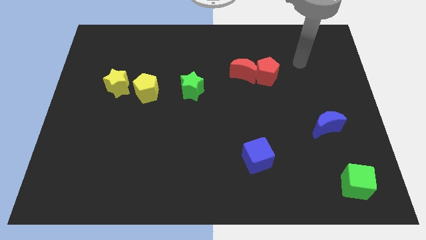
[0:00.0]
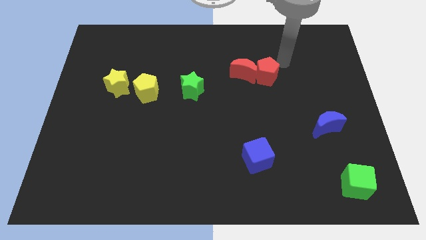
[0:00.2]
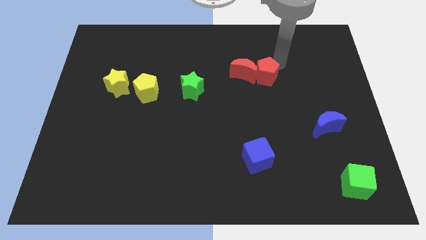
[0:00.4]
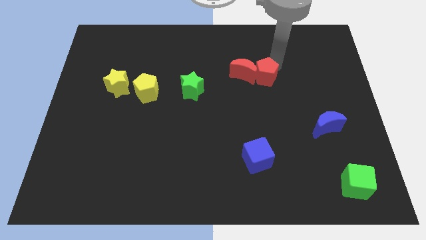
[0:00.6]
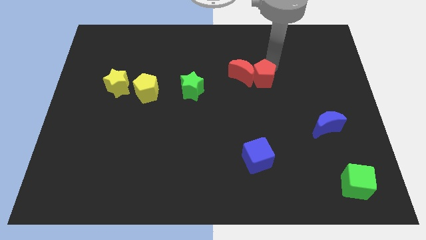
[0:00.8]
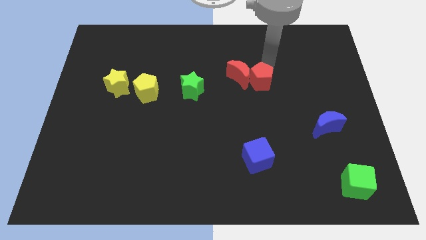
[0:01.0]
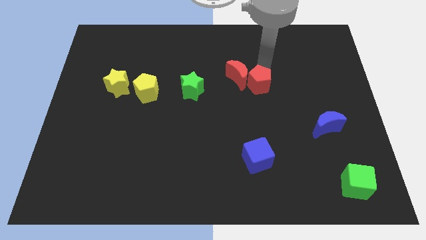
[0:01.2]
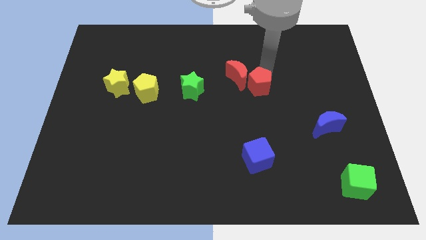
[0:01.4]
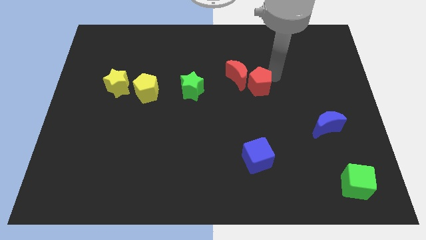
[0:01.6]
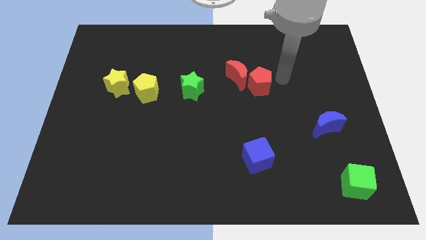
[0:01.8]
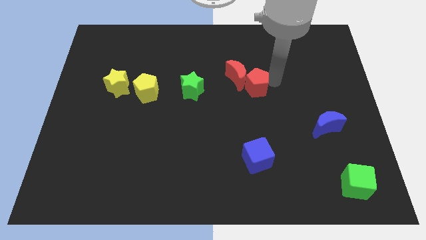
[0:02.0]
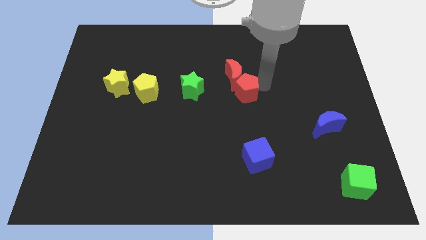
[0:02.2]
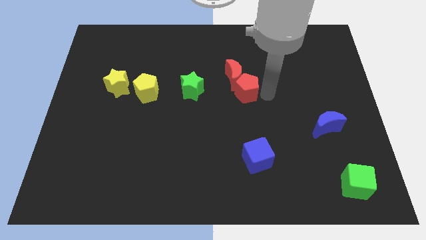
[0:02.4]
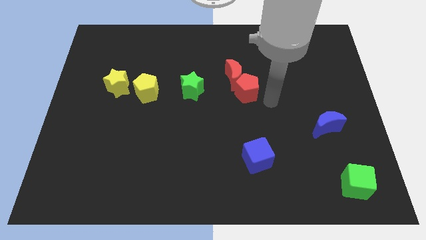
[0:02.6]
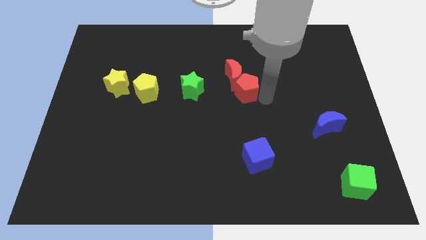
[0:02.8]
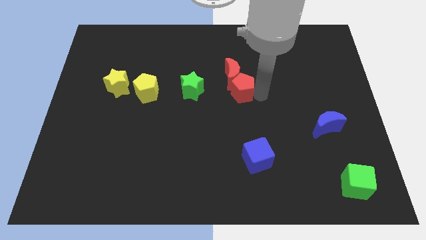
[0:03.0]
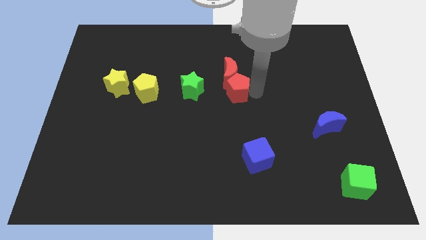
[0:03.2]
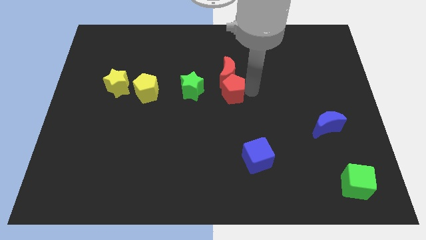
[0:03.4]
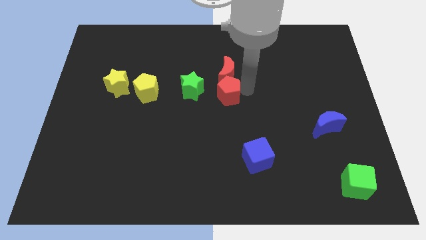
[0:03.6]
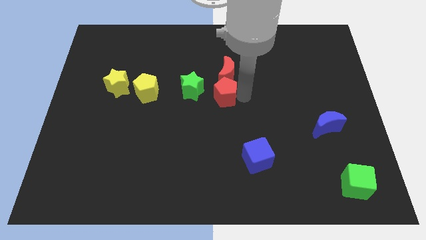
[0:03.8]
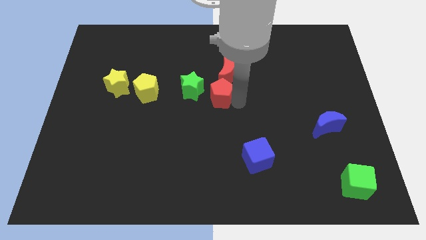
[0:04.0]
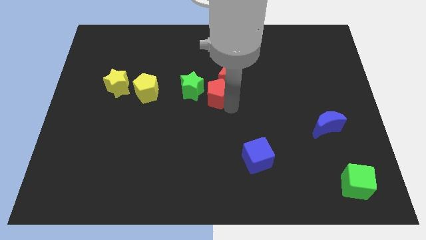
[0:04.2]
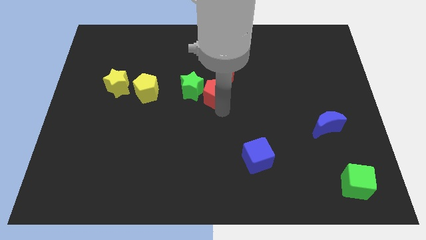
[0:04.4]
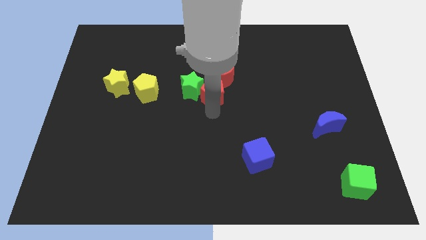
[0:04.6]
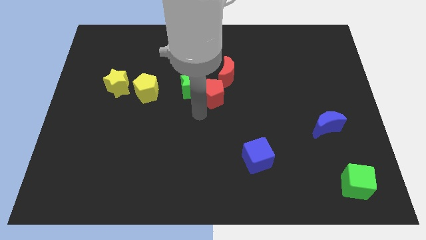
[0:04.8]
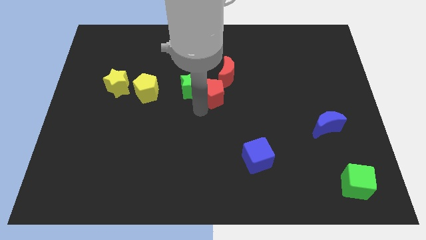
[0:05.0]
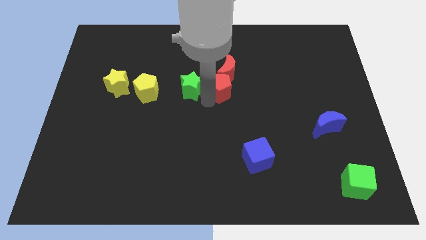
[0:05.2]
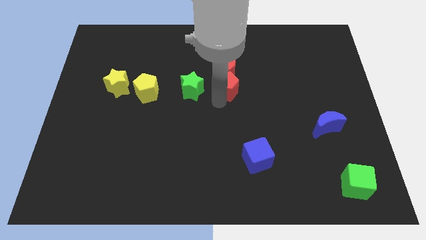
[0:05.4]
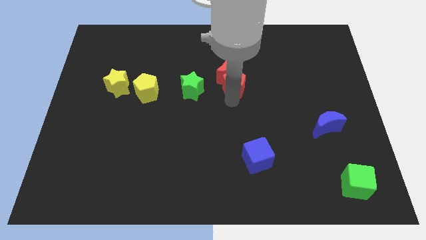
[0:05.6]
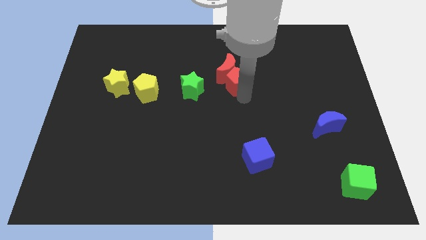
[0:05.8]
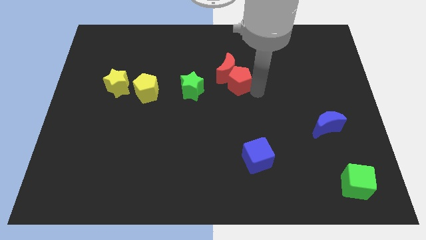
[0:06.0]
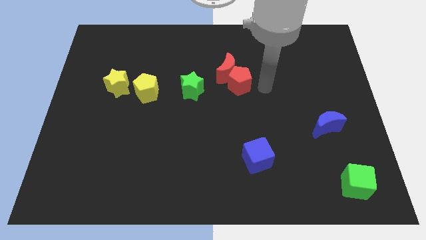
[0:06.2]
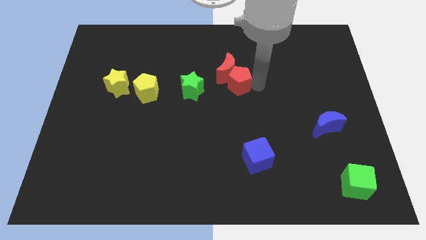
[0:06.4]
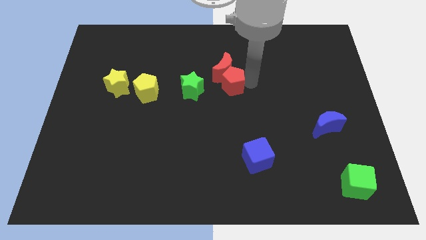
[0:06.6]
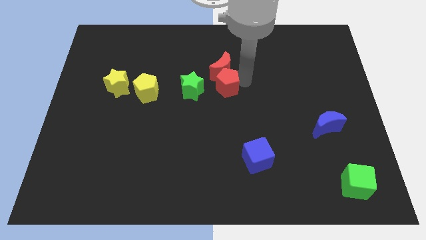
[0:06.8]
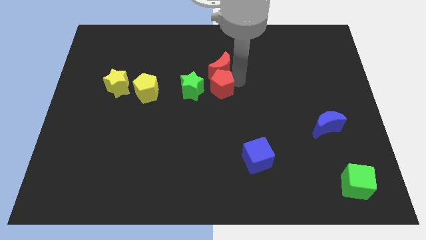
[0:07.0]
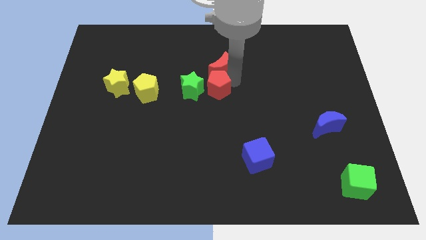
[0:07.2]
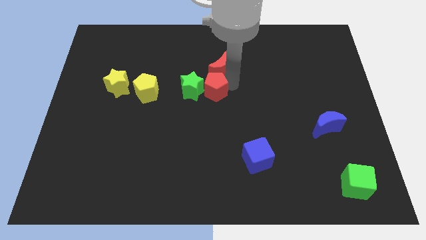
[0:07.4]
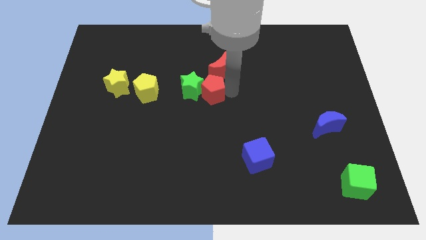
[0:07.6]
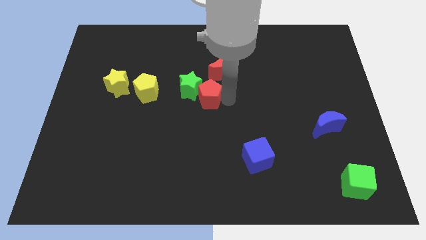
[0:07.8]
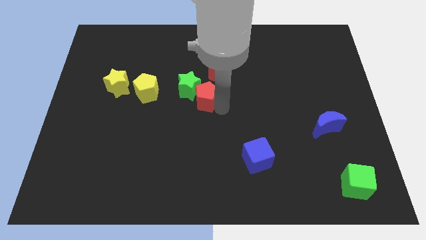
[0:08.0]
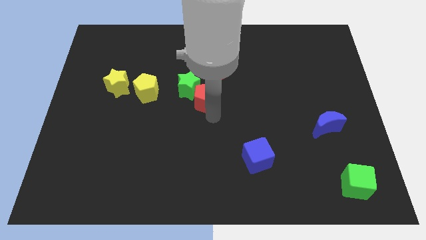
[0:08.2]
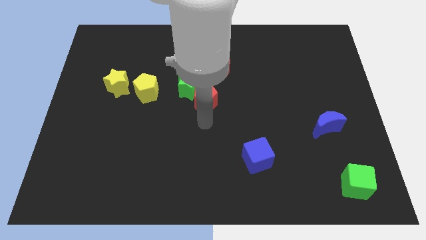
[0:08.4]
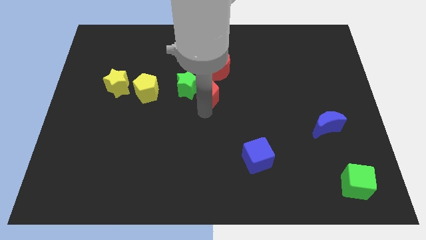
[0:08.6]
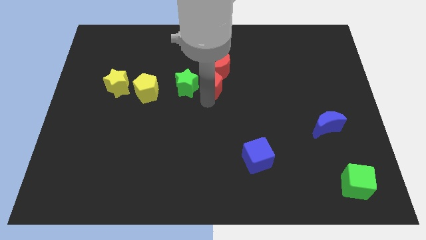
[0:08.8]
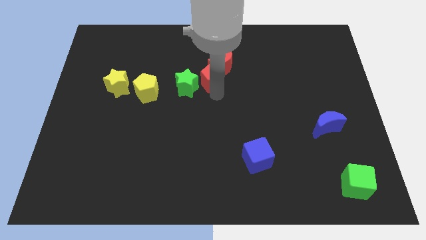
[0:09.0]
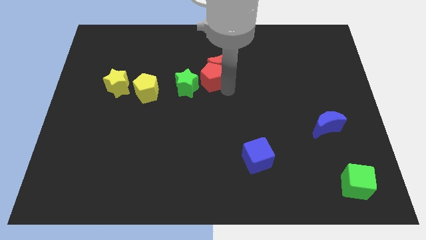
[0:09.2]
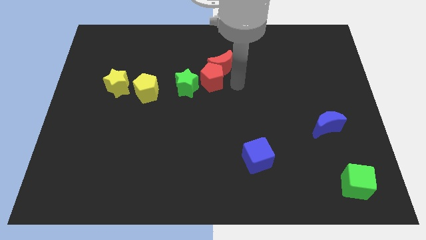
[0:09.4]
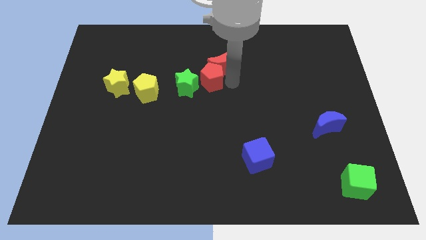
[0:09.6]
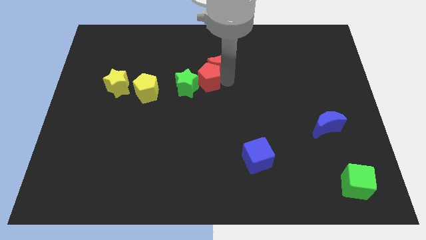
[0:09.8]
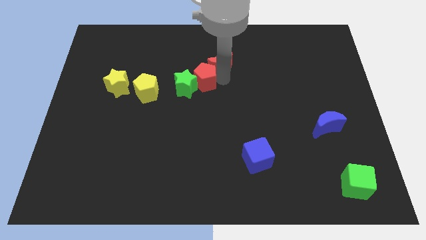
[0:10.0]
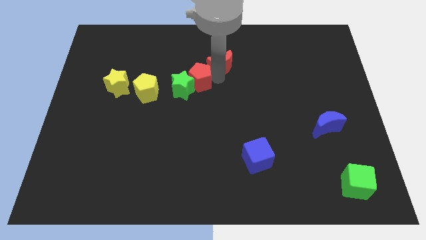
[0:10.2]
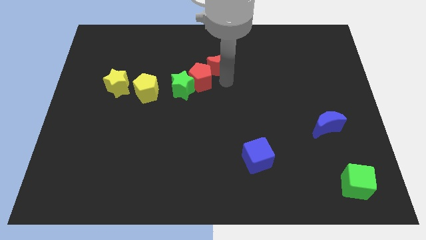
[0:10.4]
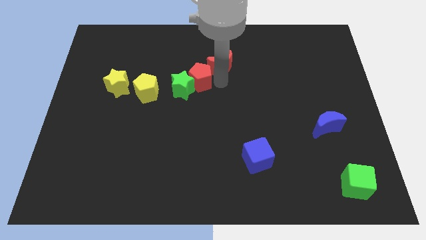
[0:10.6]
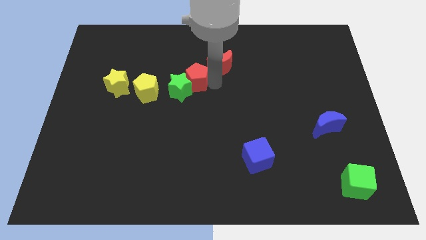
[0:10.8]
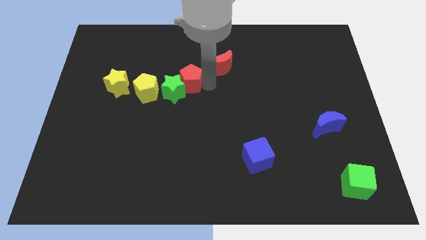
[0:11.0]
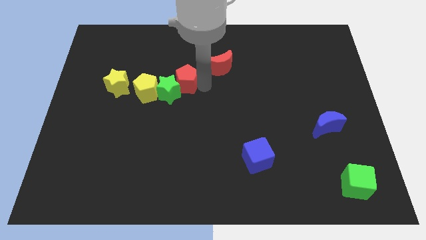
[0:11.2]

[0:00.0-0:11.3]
push the red pentagon to the left

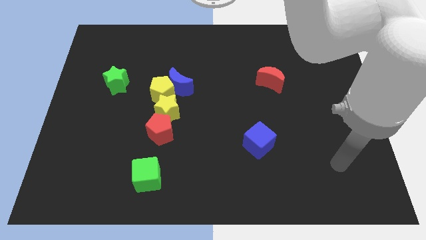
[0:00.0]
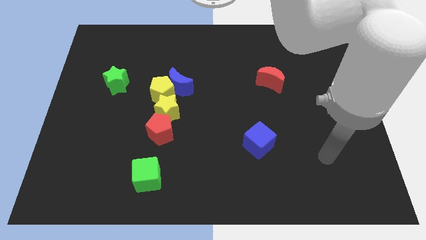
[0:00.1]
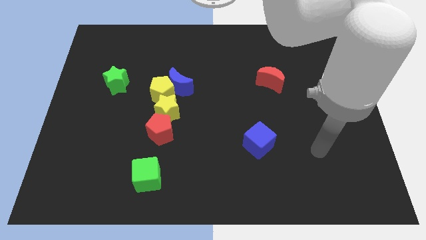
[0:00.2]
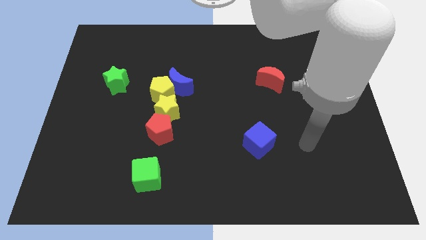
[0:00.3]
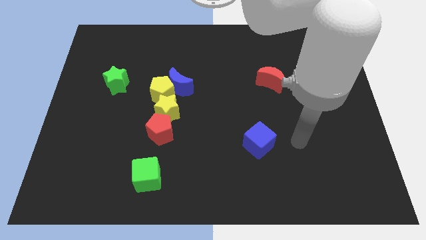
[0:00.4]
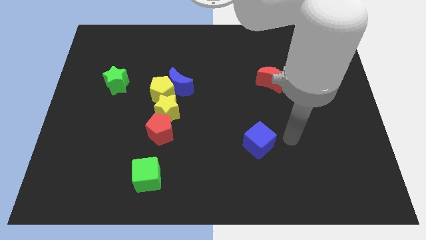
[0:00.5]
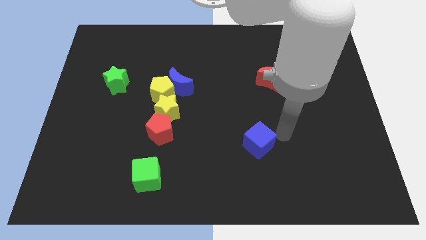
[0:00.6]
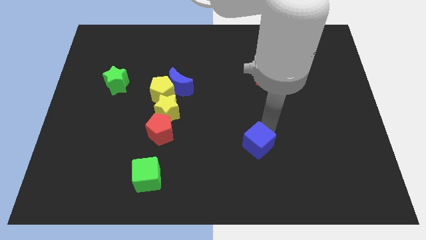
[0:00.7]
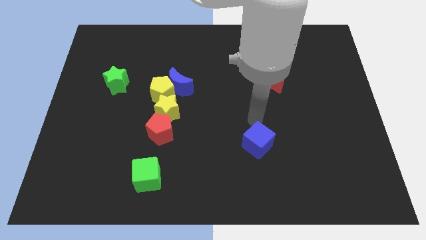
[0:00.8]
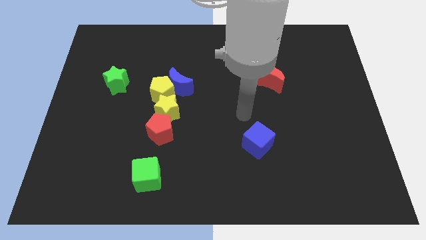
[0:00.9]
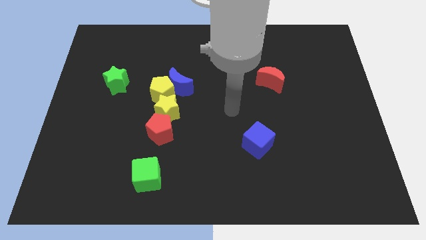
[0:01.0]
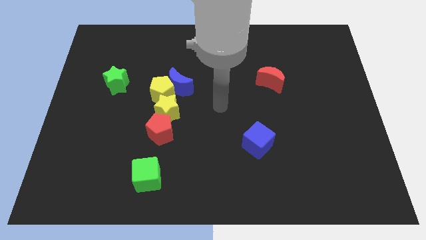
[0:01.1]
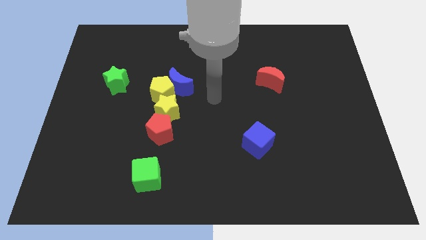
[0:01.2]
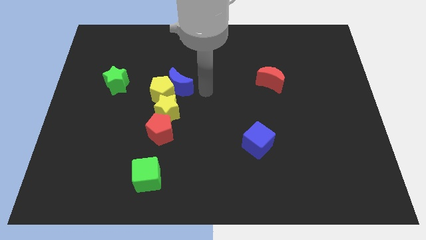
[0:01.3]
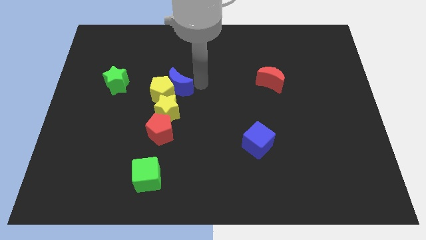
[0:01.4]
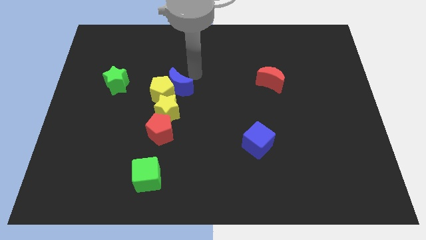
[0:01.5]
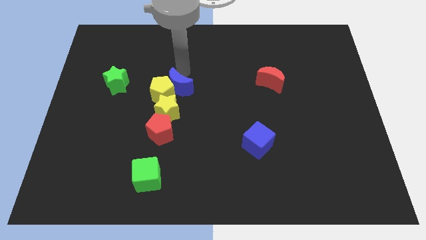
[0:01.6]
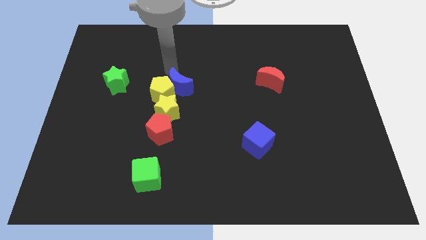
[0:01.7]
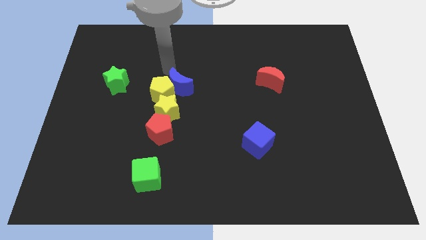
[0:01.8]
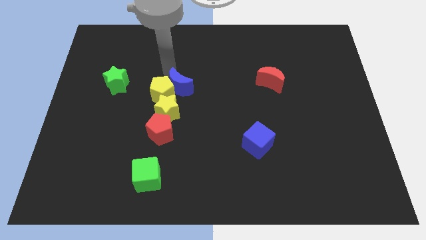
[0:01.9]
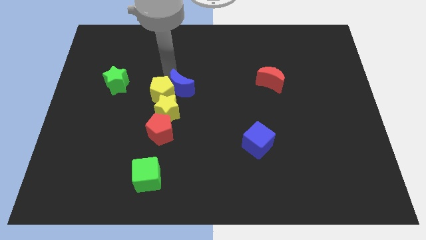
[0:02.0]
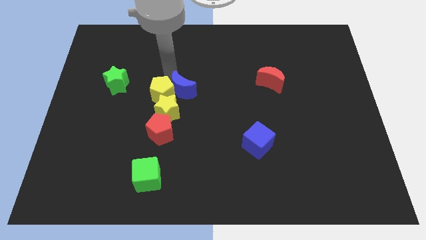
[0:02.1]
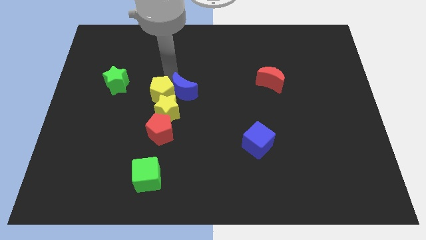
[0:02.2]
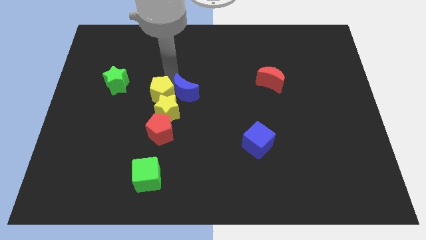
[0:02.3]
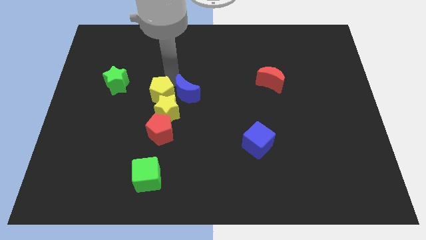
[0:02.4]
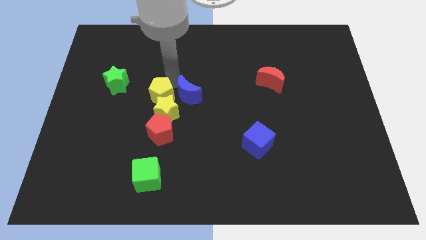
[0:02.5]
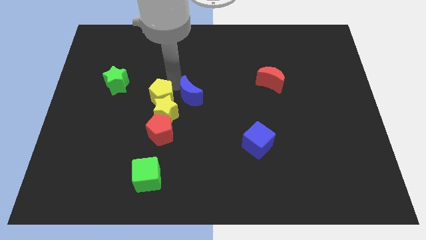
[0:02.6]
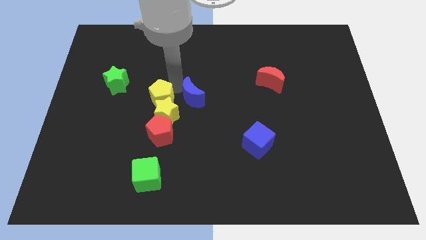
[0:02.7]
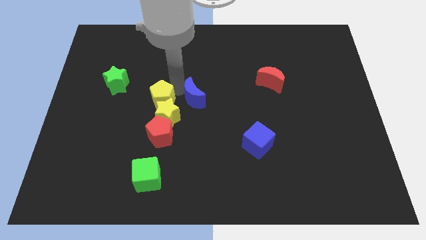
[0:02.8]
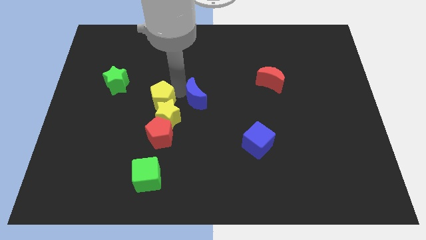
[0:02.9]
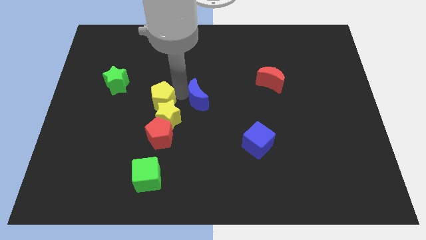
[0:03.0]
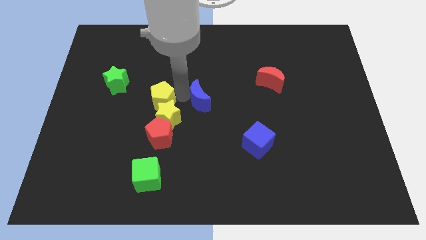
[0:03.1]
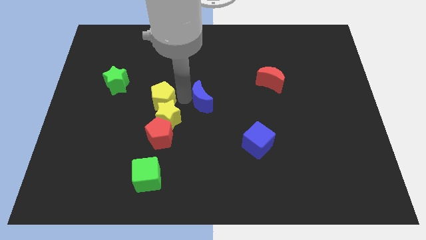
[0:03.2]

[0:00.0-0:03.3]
move the blue moon somewhat downwards and then right
